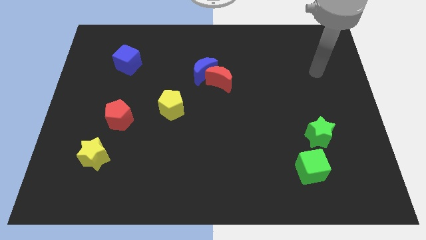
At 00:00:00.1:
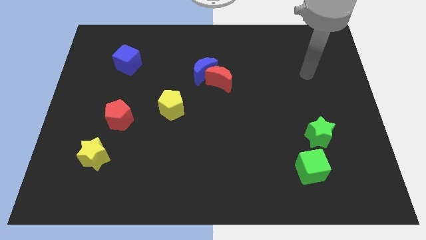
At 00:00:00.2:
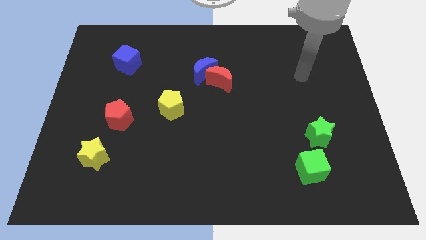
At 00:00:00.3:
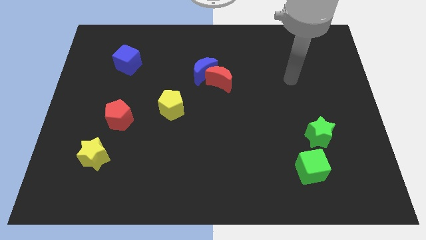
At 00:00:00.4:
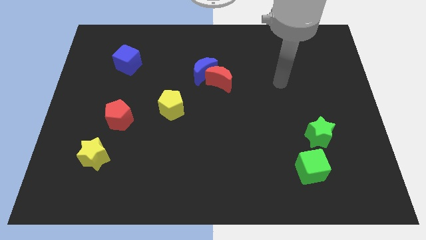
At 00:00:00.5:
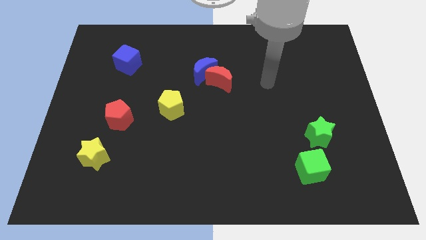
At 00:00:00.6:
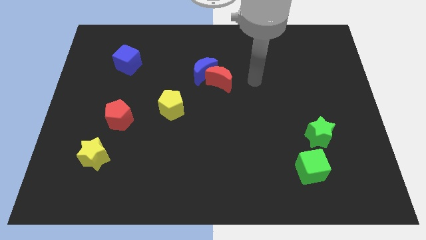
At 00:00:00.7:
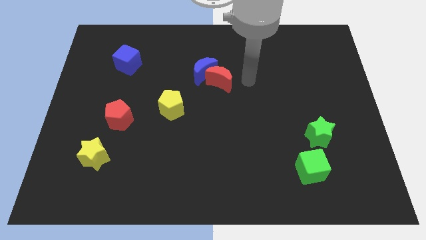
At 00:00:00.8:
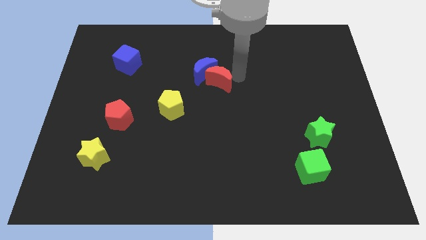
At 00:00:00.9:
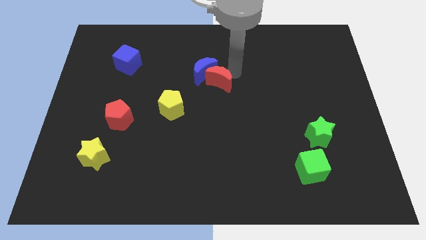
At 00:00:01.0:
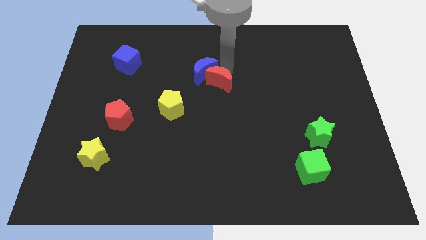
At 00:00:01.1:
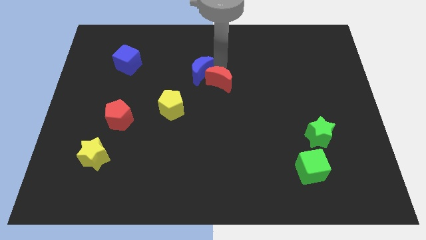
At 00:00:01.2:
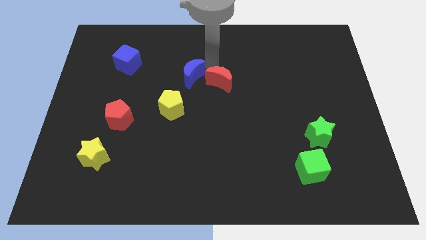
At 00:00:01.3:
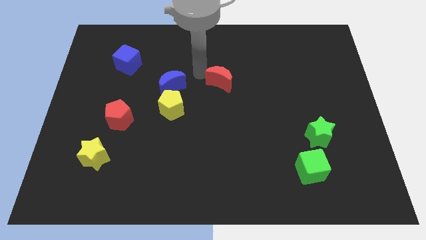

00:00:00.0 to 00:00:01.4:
move the red moon away from the blue moon

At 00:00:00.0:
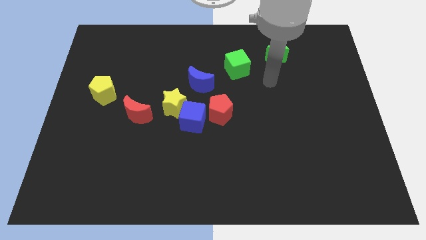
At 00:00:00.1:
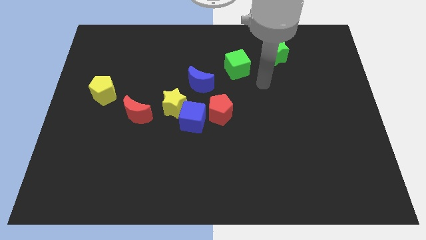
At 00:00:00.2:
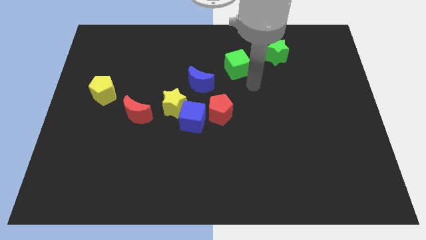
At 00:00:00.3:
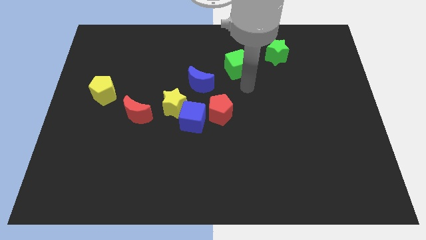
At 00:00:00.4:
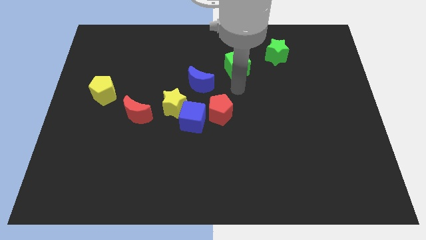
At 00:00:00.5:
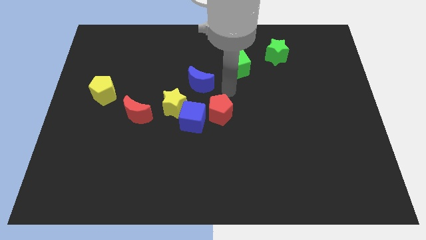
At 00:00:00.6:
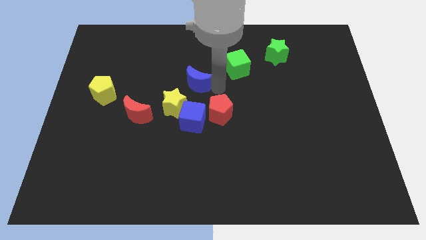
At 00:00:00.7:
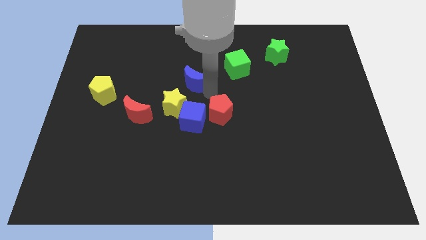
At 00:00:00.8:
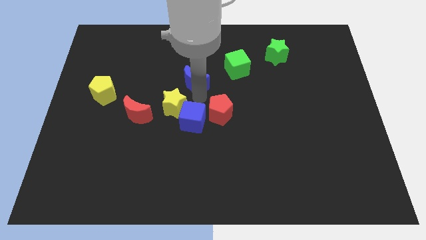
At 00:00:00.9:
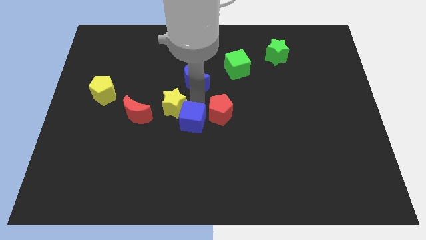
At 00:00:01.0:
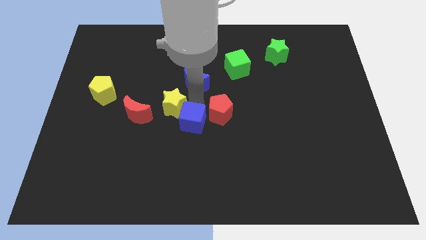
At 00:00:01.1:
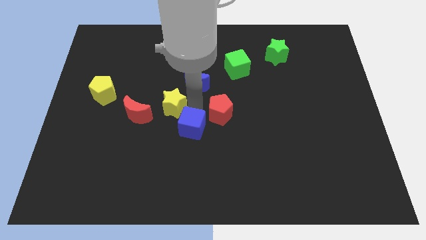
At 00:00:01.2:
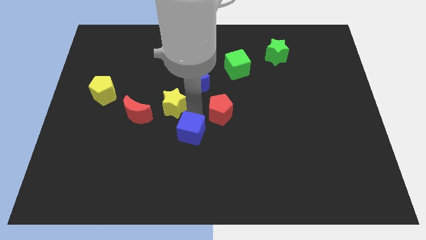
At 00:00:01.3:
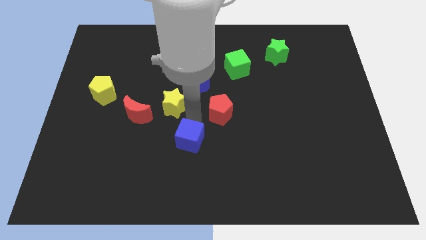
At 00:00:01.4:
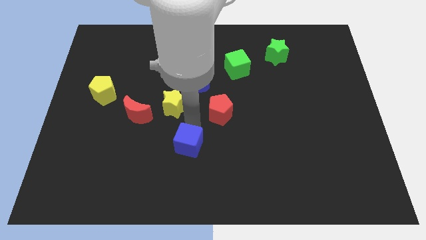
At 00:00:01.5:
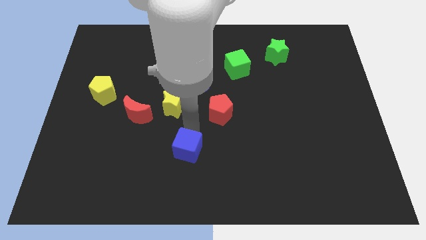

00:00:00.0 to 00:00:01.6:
move the blue cube away from the yellow star and red pentagon

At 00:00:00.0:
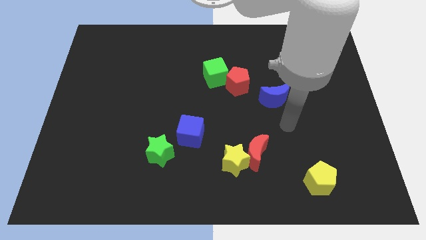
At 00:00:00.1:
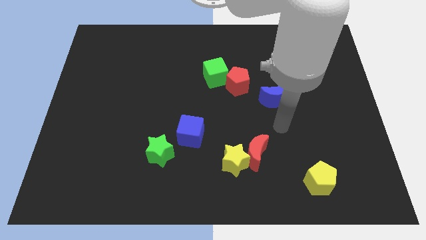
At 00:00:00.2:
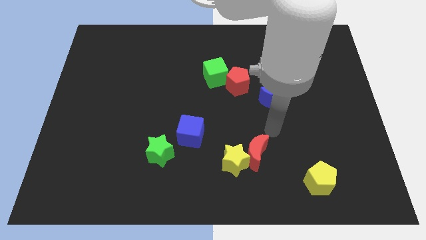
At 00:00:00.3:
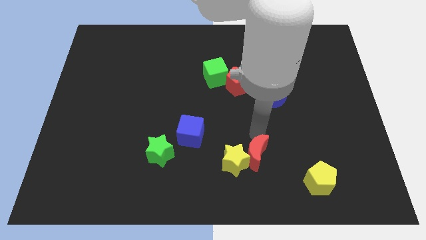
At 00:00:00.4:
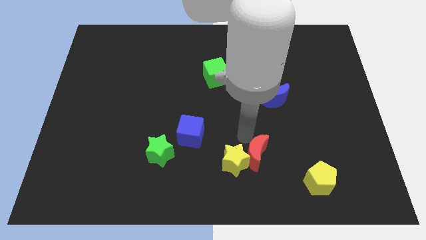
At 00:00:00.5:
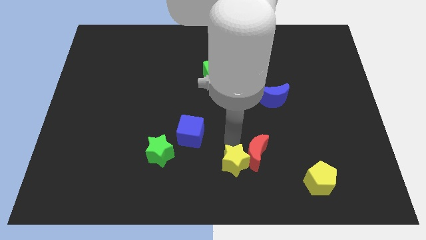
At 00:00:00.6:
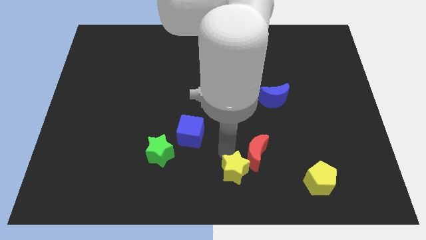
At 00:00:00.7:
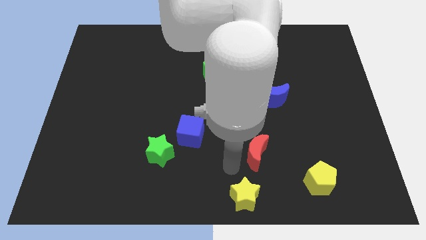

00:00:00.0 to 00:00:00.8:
separate the red moon from the yellow star

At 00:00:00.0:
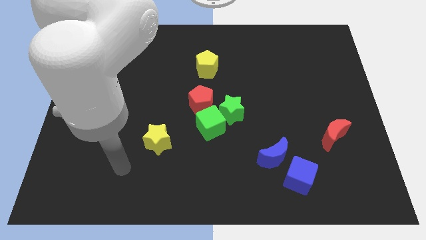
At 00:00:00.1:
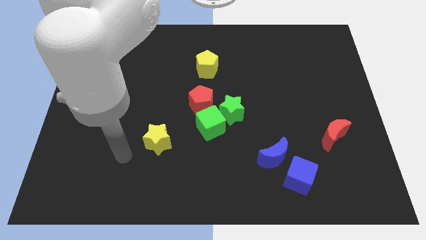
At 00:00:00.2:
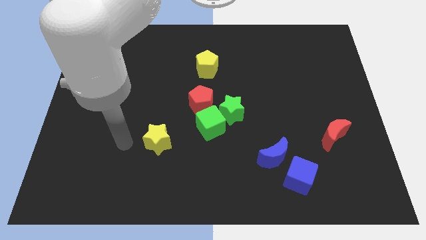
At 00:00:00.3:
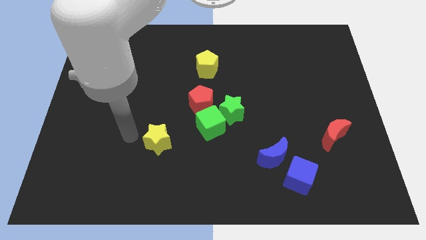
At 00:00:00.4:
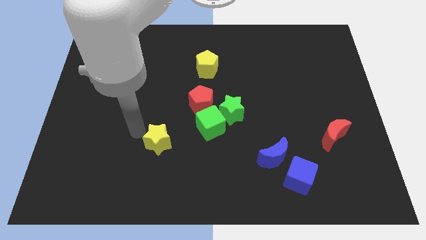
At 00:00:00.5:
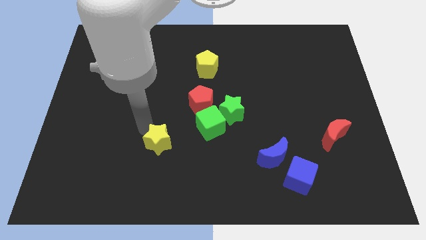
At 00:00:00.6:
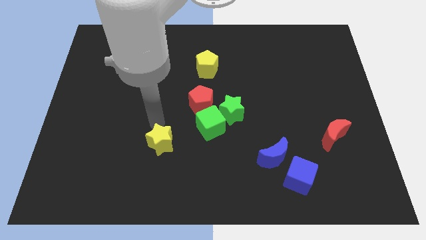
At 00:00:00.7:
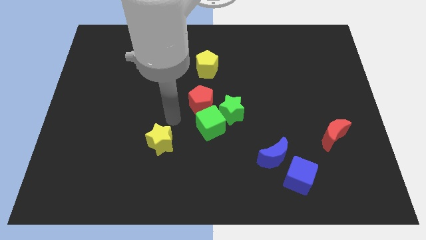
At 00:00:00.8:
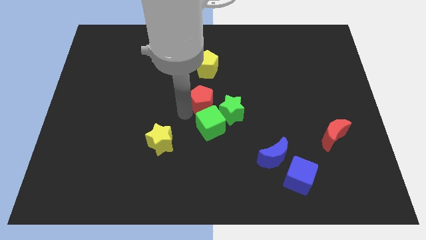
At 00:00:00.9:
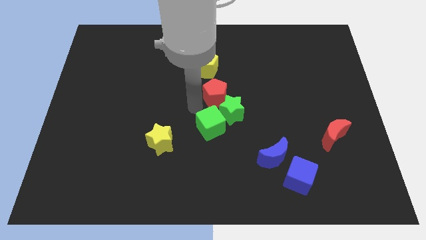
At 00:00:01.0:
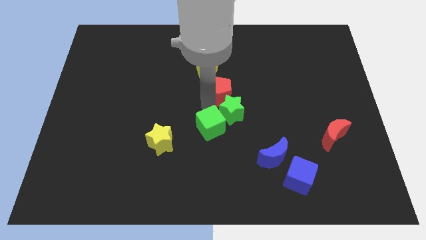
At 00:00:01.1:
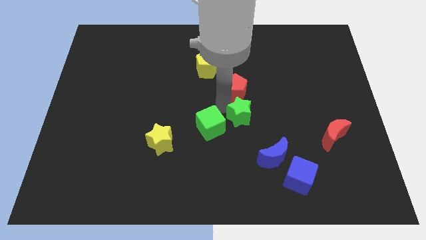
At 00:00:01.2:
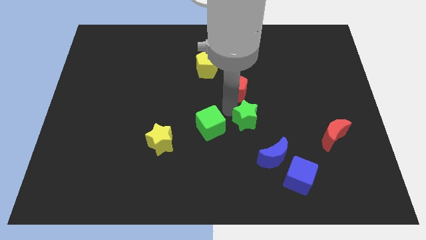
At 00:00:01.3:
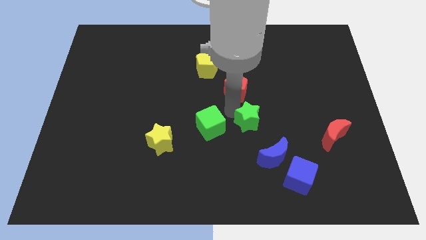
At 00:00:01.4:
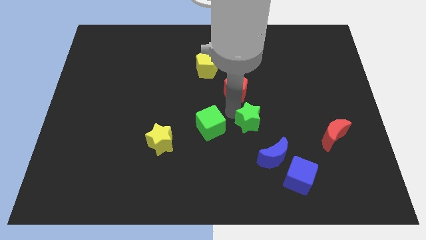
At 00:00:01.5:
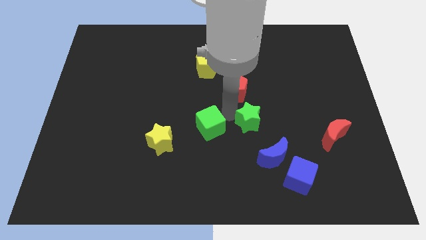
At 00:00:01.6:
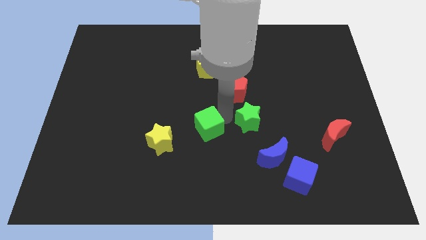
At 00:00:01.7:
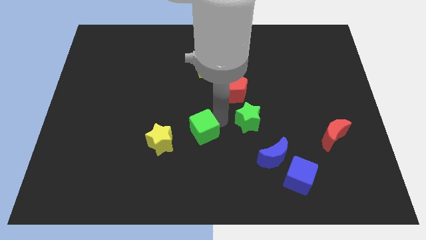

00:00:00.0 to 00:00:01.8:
move the green cube away from the green star and red pentagon

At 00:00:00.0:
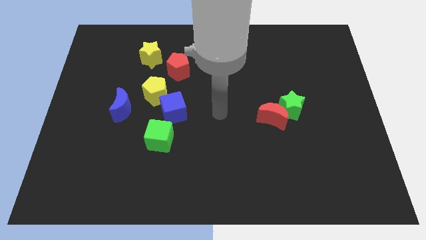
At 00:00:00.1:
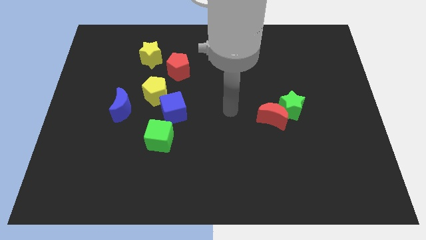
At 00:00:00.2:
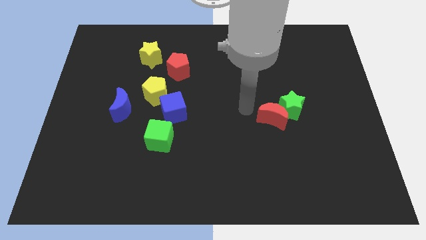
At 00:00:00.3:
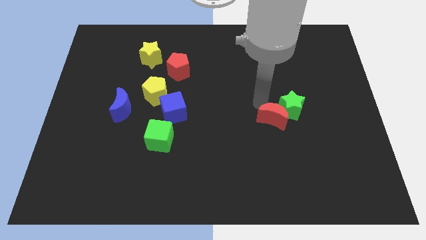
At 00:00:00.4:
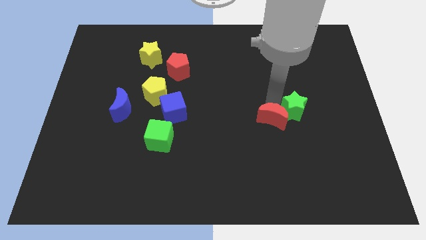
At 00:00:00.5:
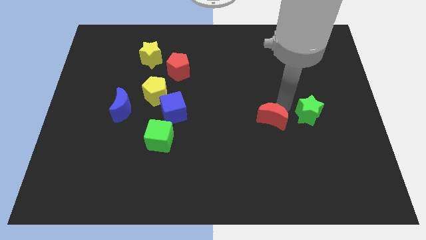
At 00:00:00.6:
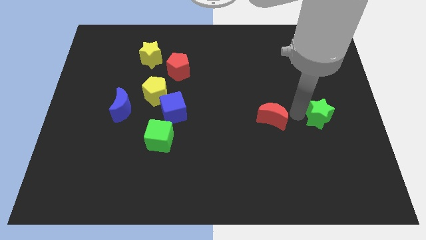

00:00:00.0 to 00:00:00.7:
separate the red moon from the green star

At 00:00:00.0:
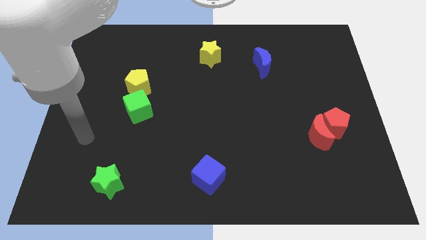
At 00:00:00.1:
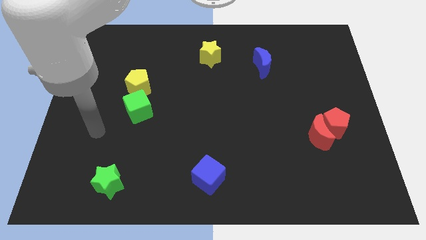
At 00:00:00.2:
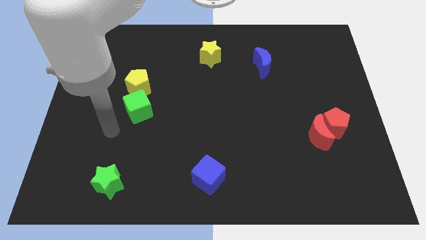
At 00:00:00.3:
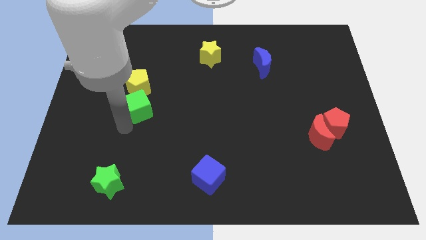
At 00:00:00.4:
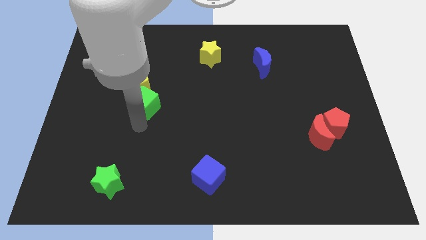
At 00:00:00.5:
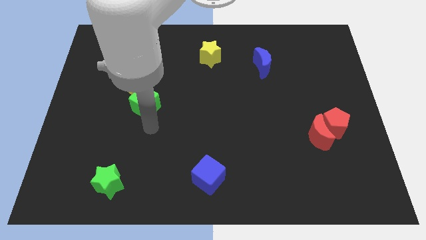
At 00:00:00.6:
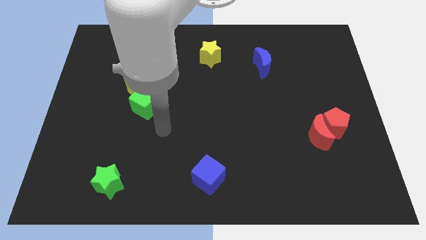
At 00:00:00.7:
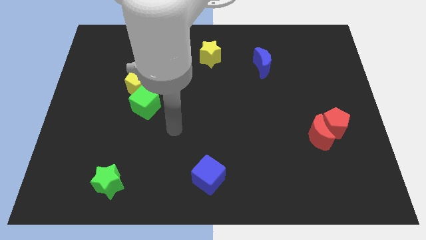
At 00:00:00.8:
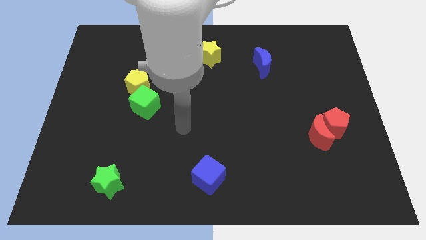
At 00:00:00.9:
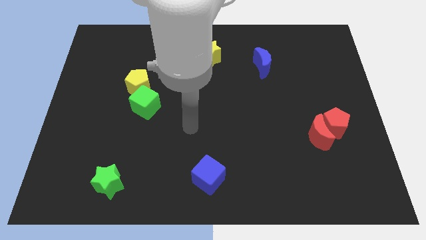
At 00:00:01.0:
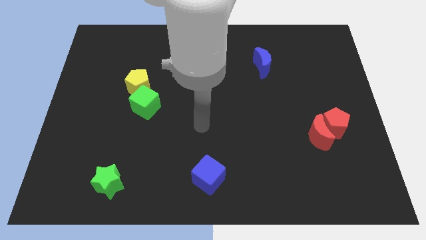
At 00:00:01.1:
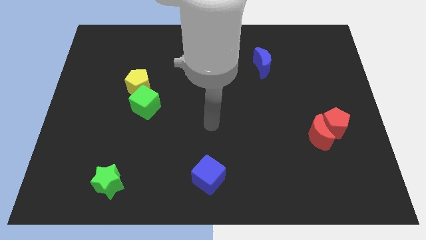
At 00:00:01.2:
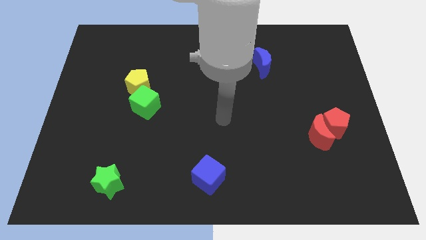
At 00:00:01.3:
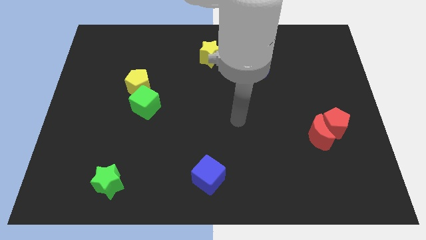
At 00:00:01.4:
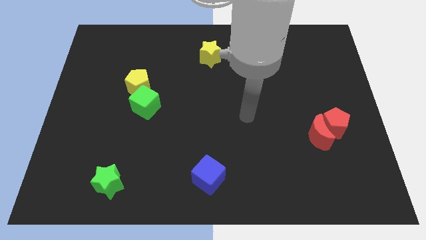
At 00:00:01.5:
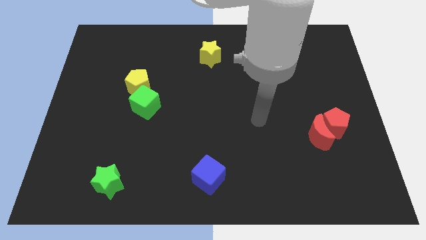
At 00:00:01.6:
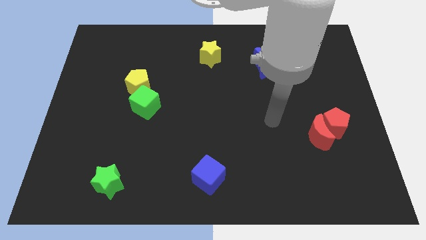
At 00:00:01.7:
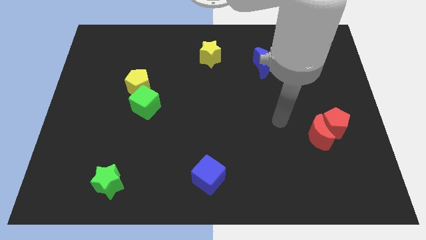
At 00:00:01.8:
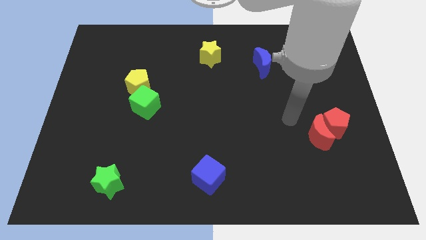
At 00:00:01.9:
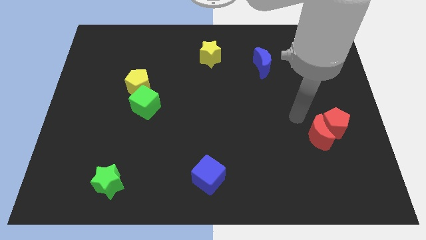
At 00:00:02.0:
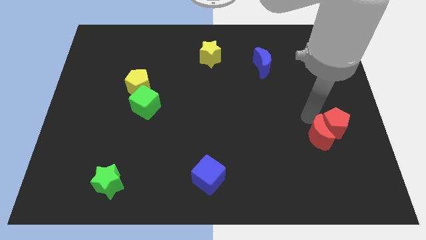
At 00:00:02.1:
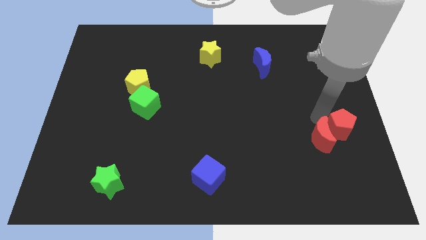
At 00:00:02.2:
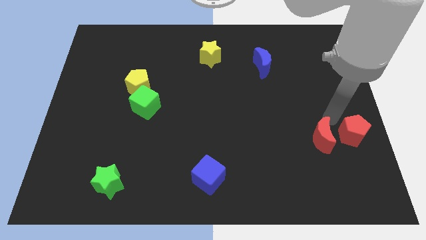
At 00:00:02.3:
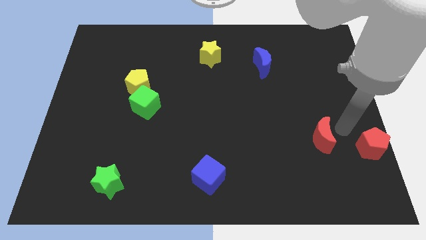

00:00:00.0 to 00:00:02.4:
pull the red moon apart from the red pentagon

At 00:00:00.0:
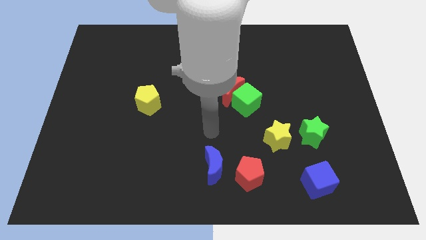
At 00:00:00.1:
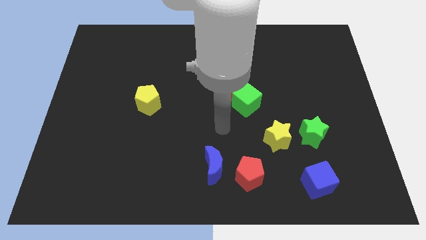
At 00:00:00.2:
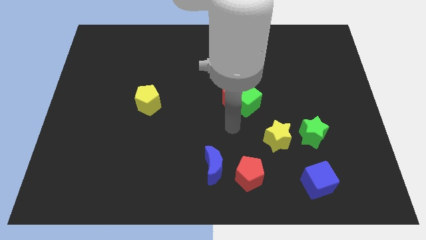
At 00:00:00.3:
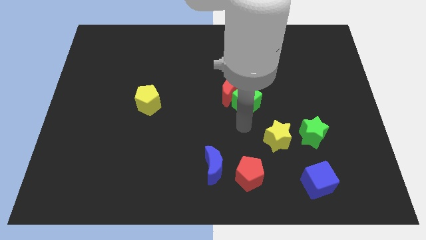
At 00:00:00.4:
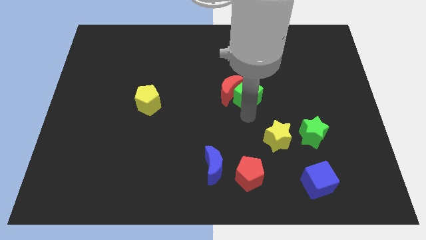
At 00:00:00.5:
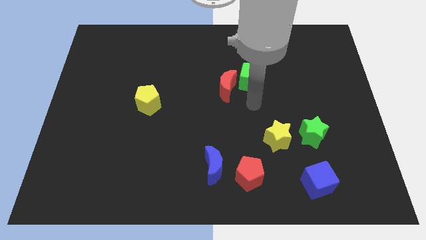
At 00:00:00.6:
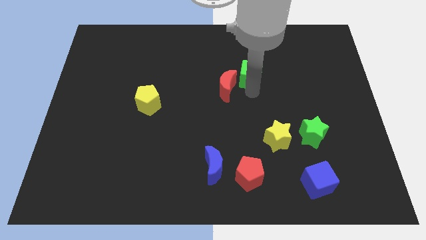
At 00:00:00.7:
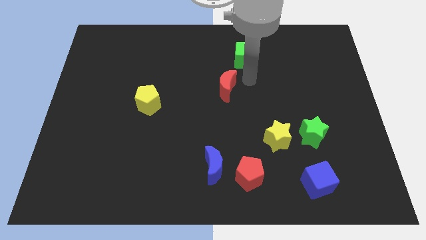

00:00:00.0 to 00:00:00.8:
pull the red moon apart from the green cube
